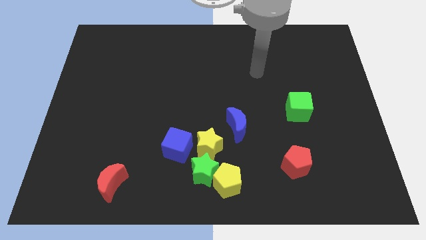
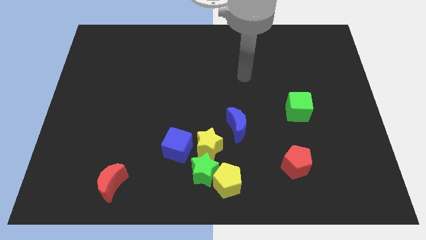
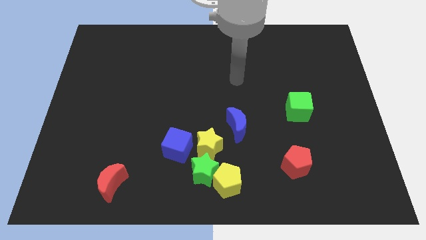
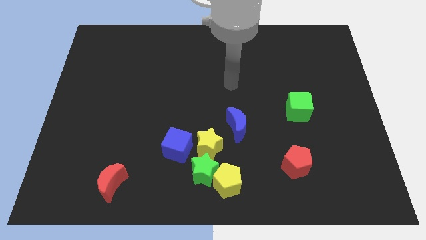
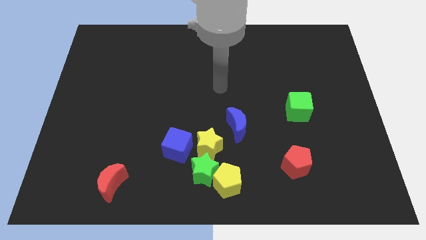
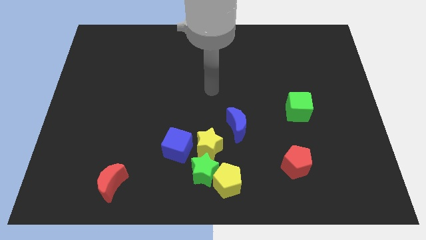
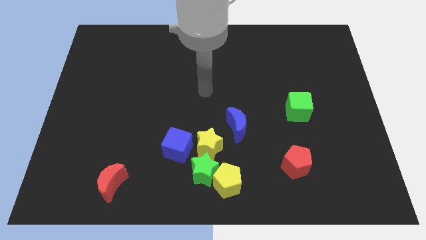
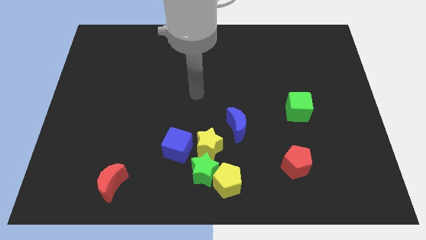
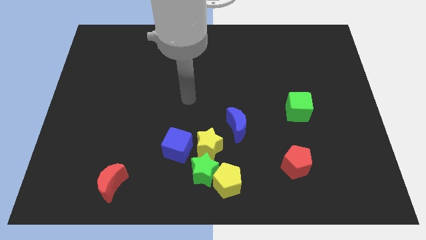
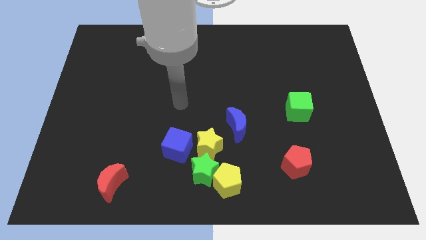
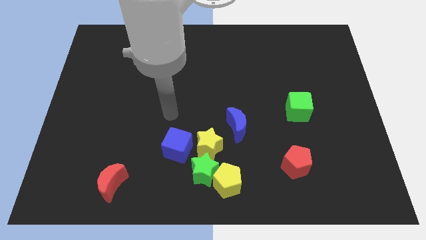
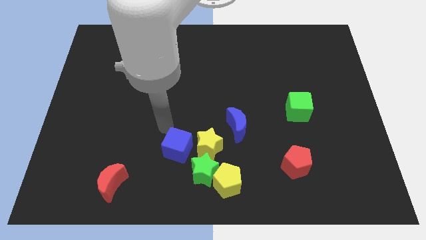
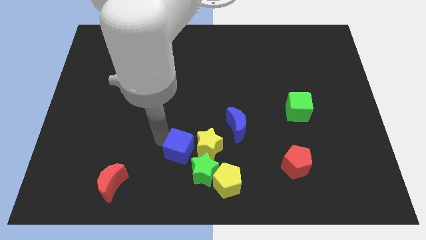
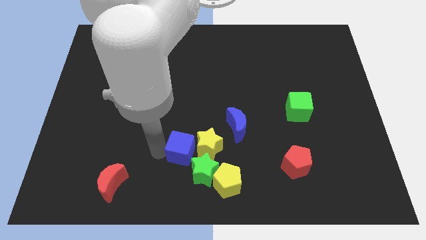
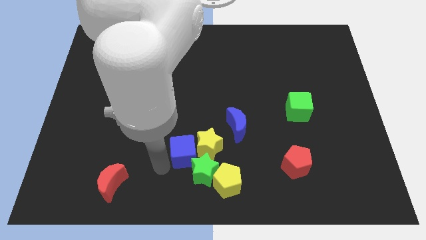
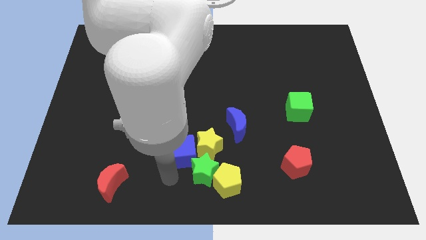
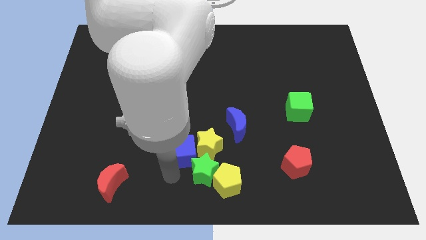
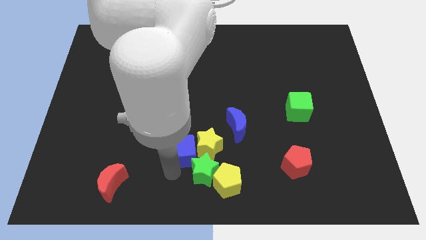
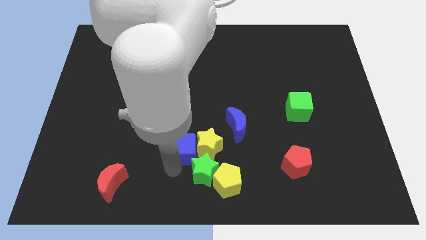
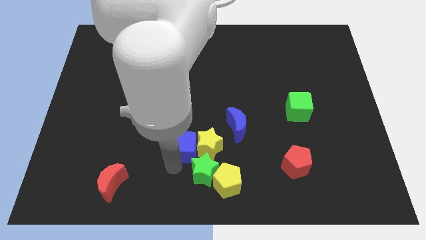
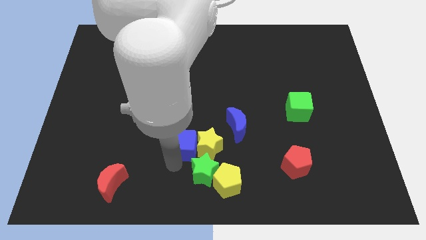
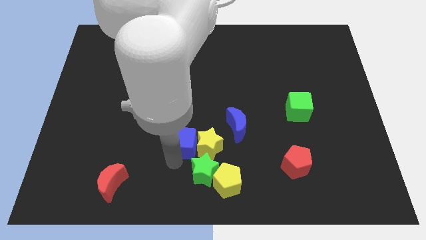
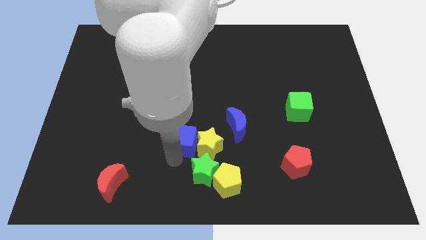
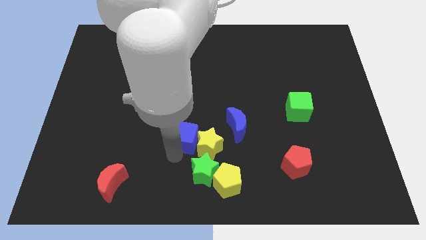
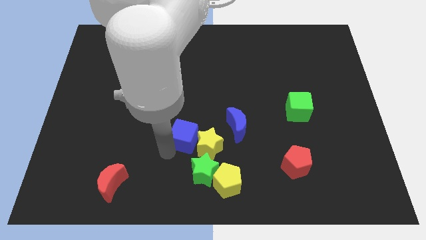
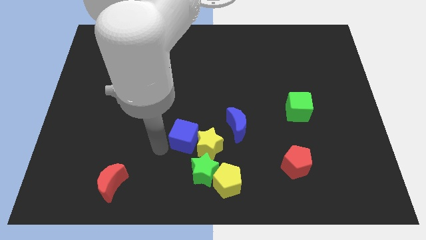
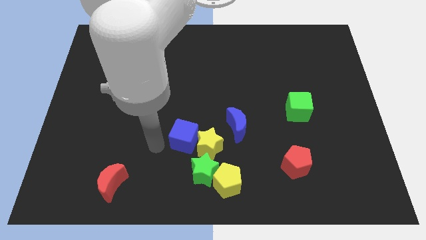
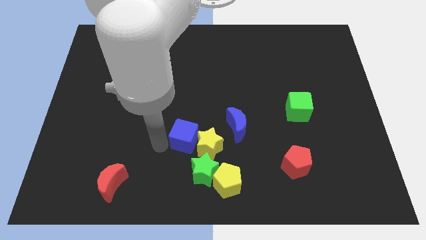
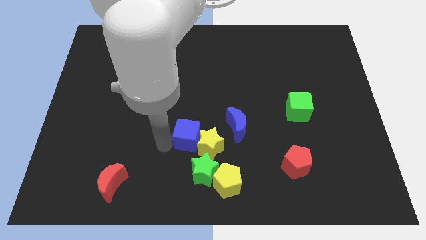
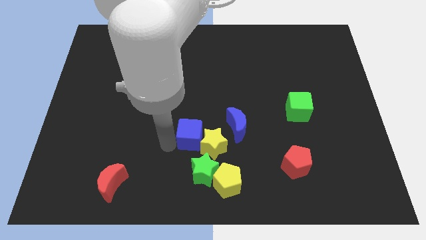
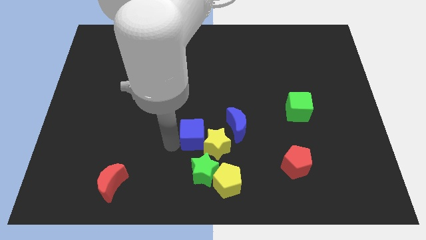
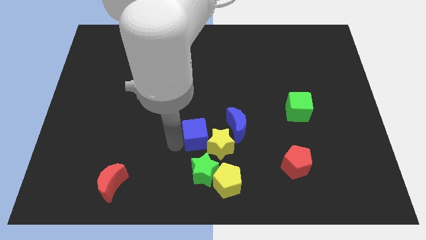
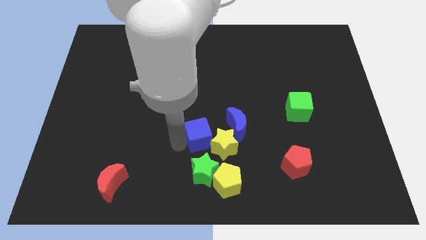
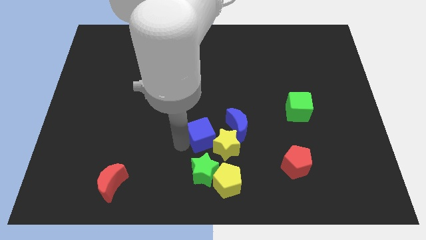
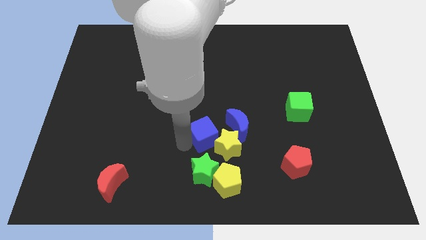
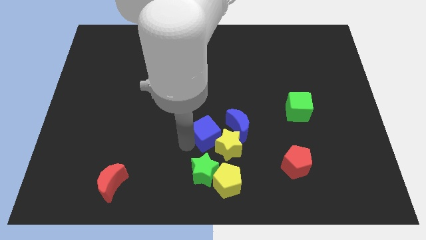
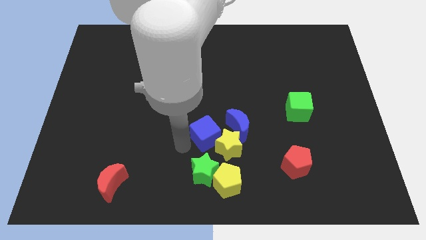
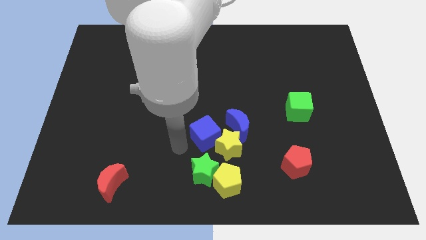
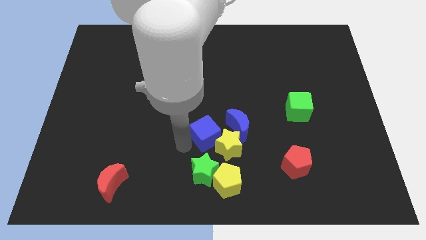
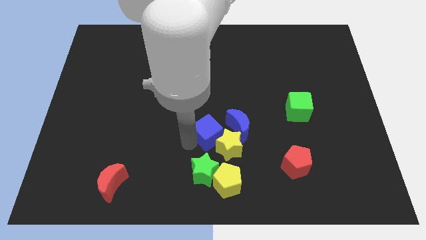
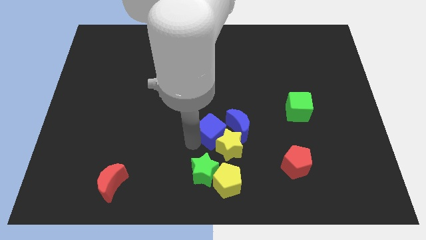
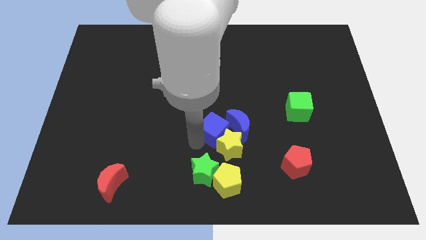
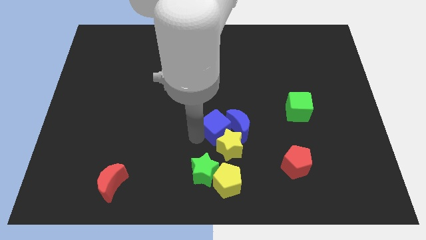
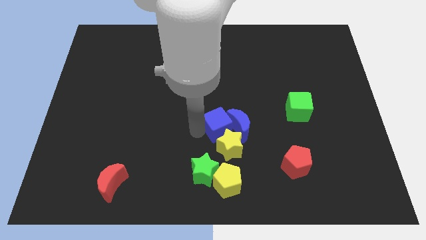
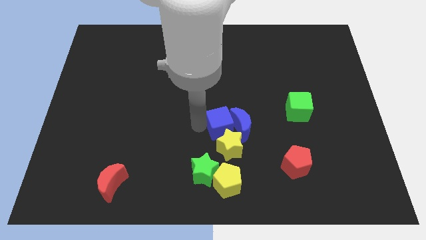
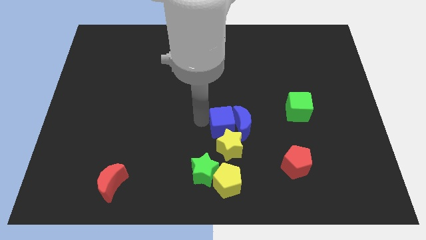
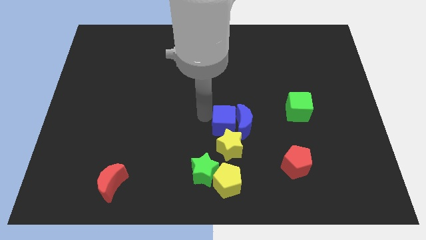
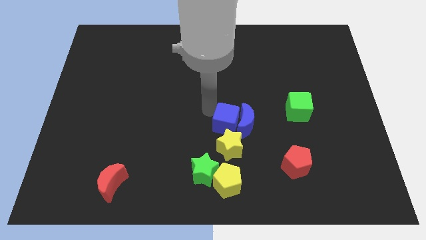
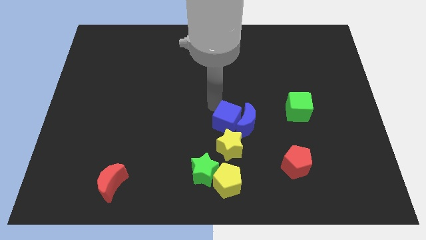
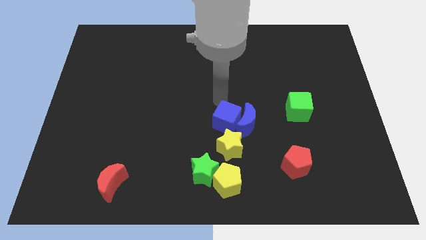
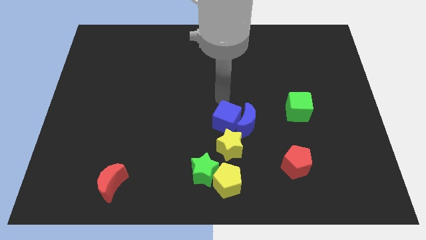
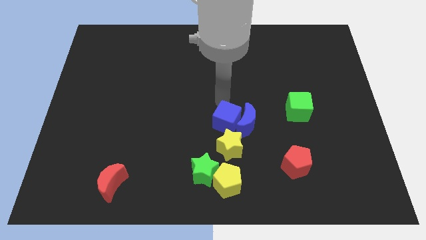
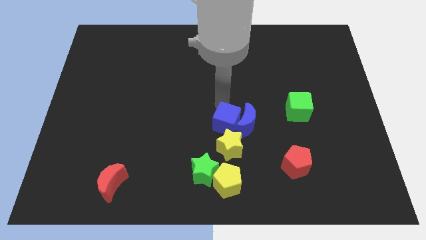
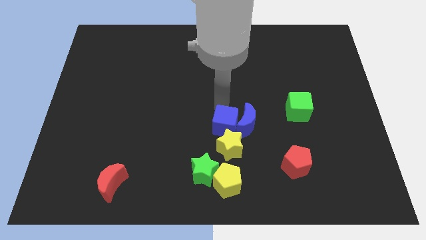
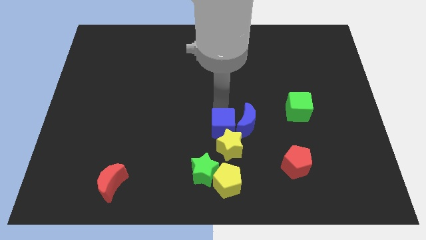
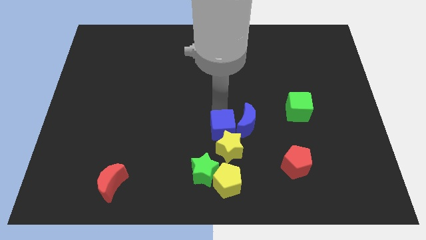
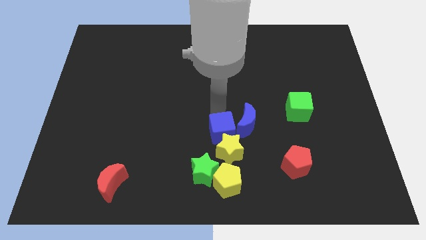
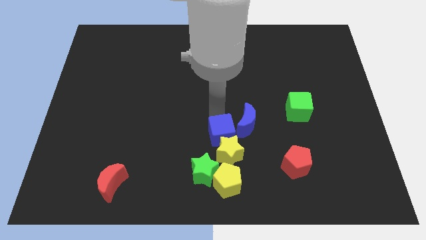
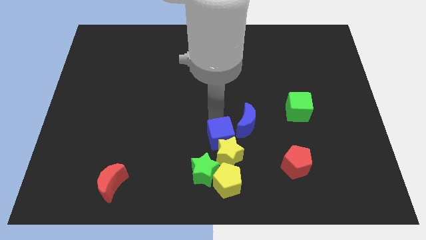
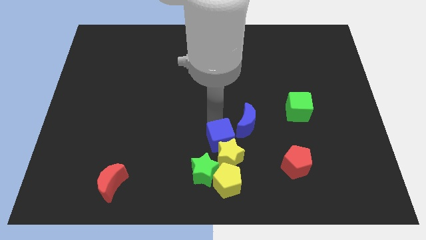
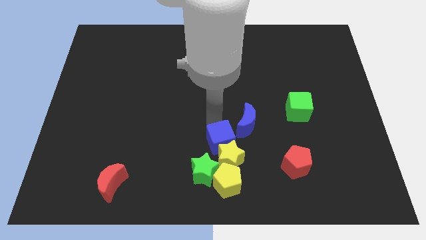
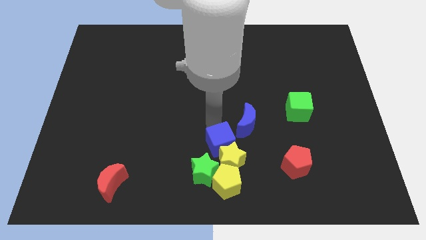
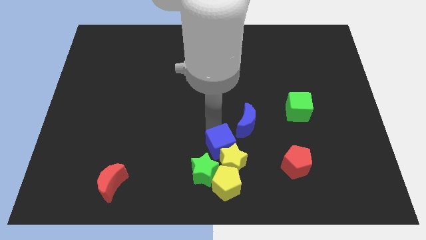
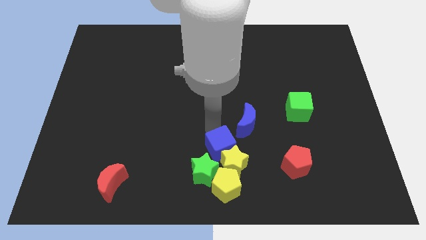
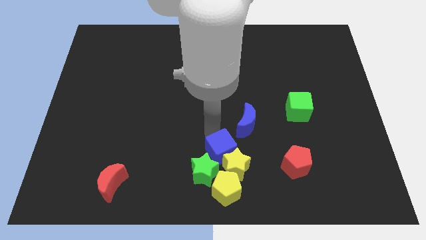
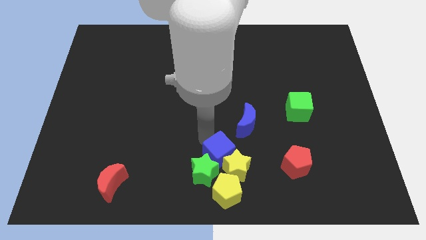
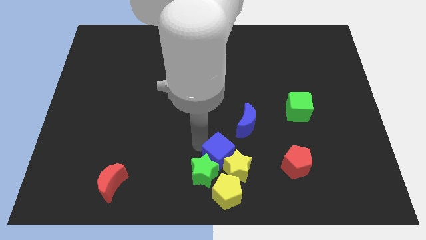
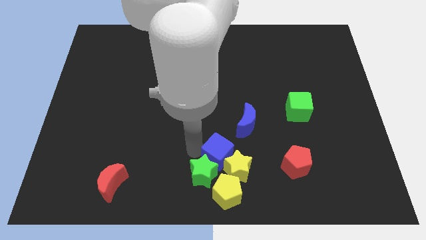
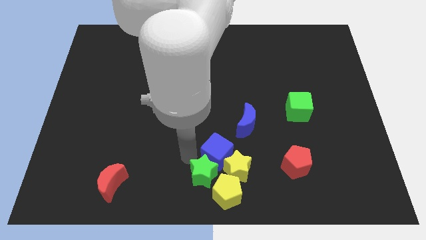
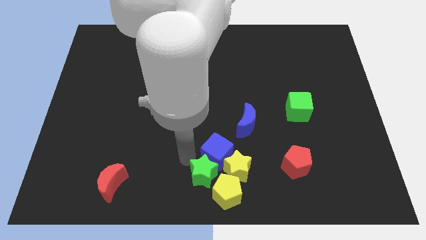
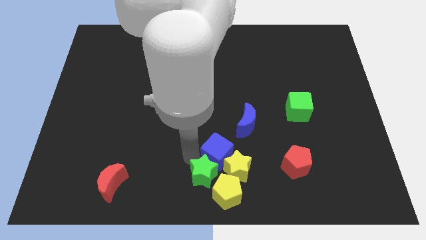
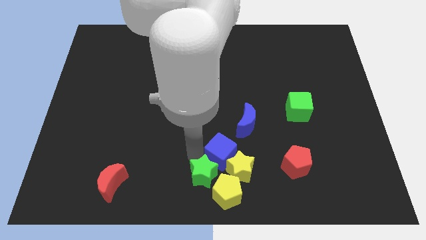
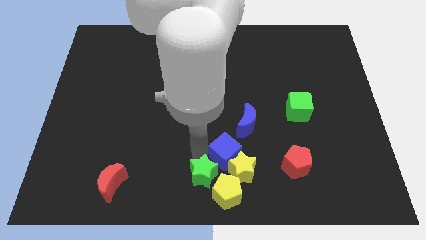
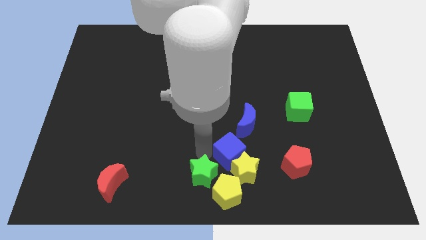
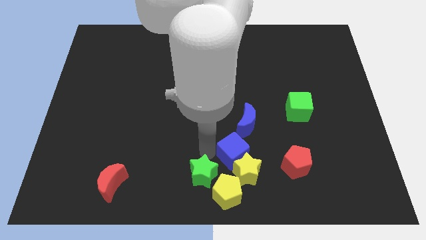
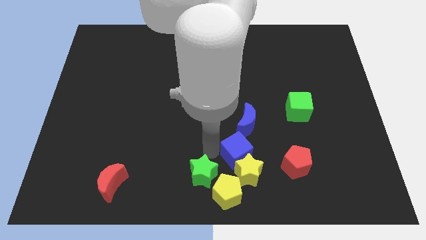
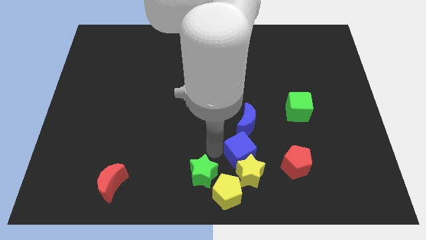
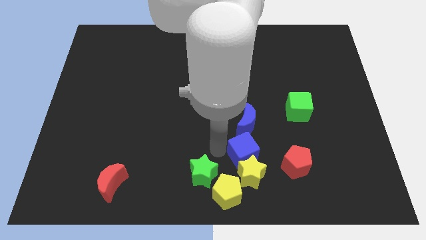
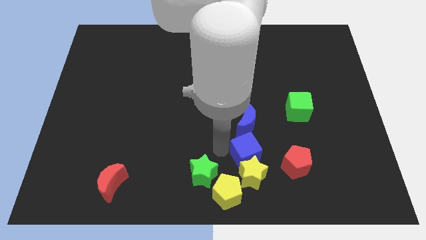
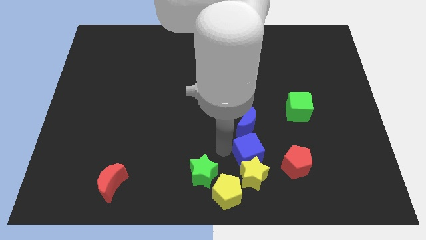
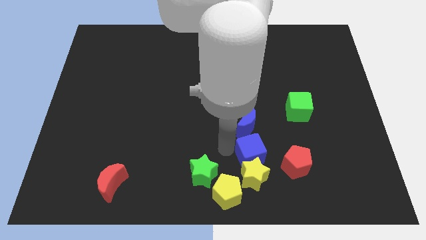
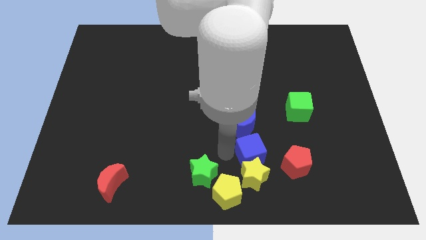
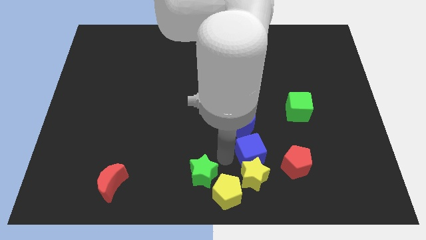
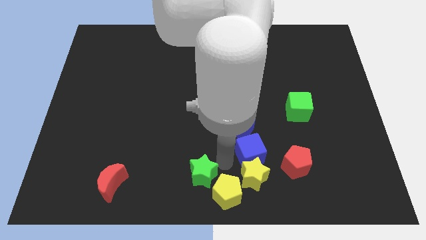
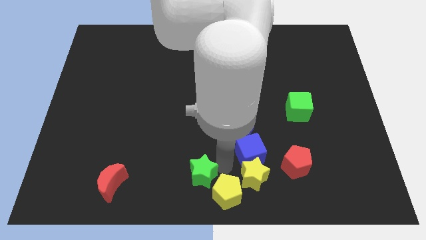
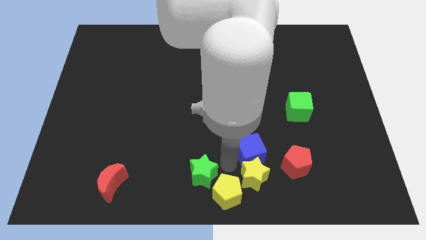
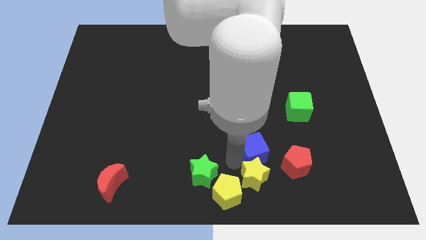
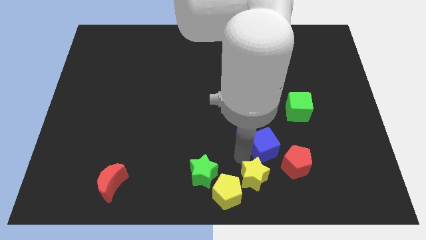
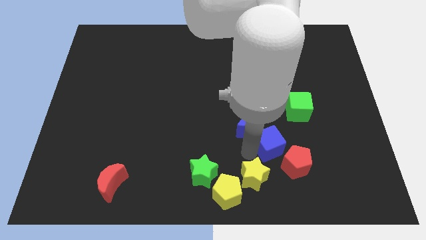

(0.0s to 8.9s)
slide the blue cube right
